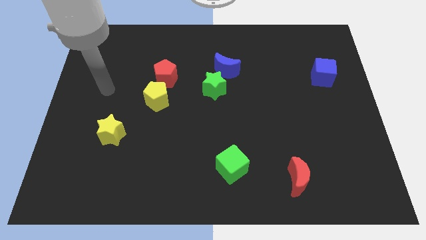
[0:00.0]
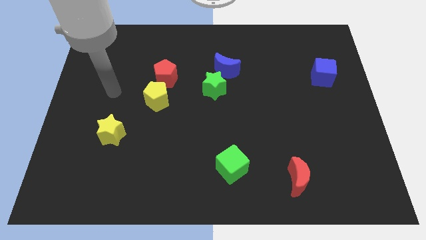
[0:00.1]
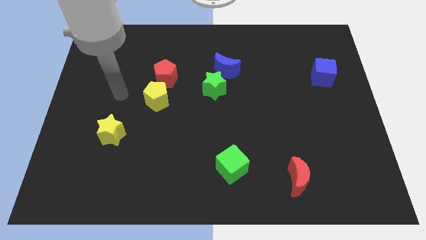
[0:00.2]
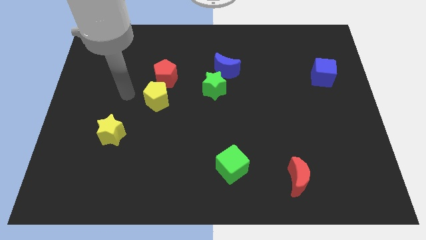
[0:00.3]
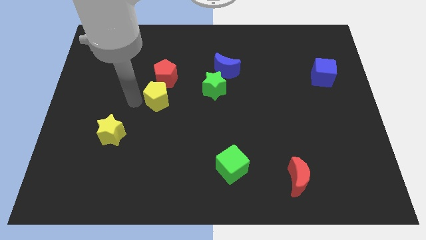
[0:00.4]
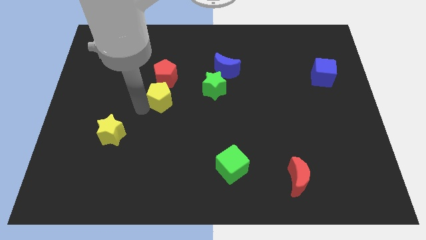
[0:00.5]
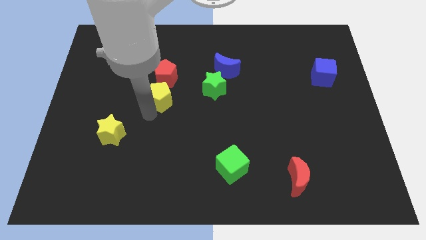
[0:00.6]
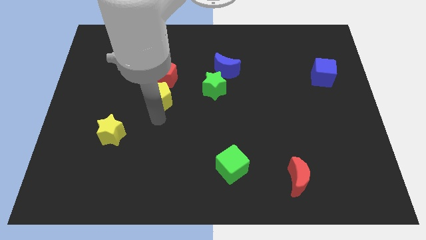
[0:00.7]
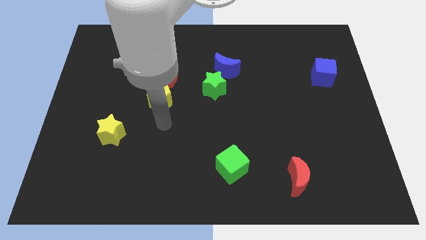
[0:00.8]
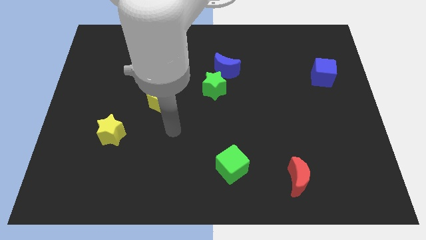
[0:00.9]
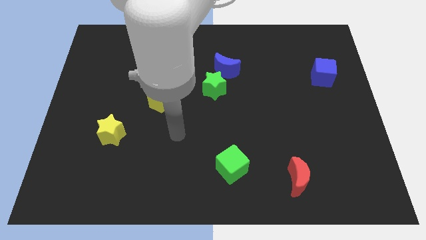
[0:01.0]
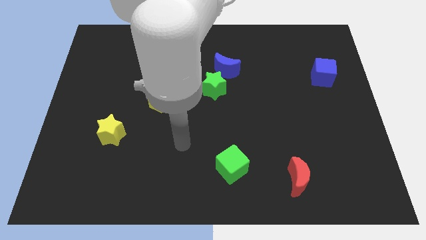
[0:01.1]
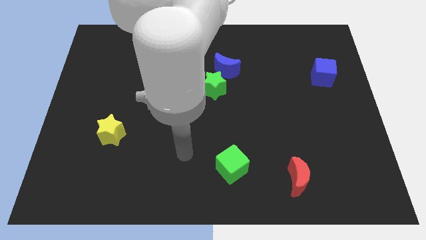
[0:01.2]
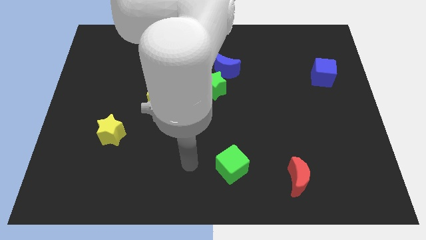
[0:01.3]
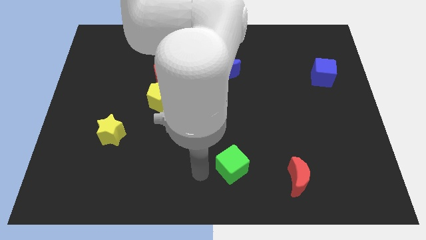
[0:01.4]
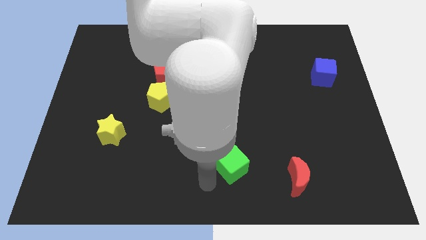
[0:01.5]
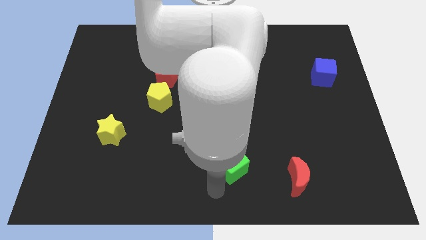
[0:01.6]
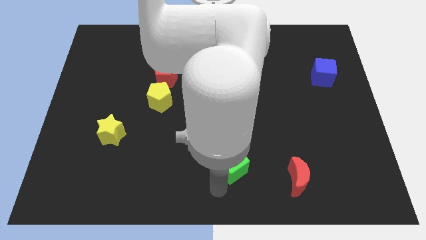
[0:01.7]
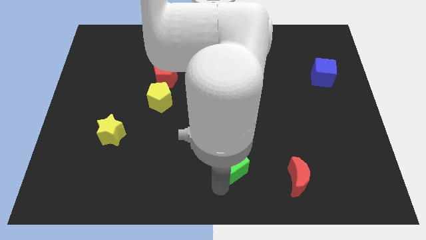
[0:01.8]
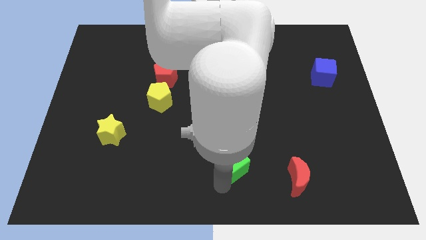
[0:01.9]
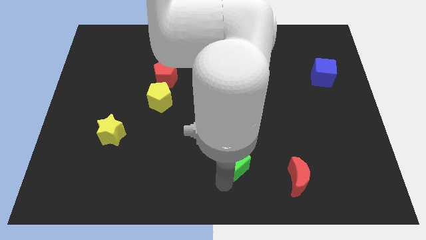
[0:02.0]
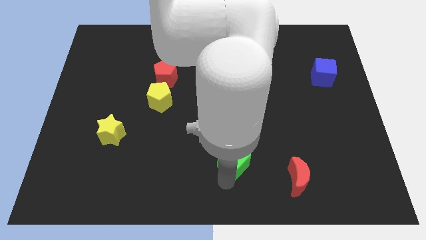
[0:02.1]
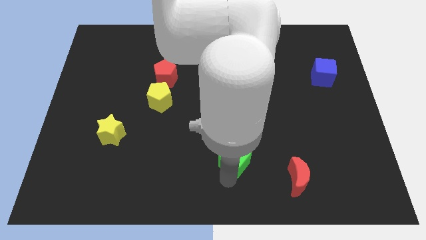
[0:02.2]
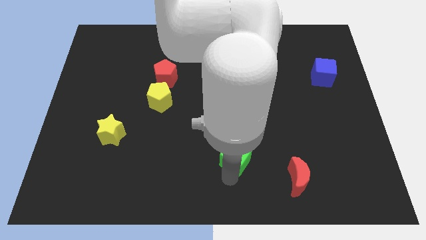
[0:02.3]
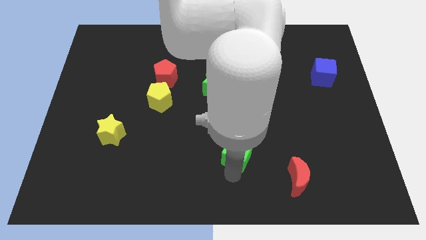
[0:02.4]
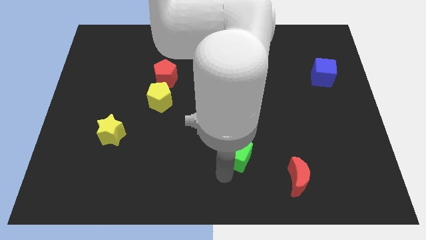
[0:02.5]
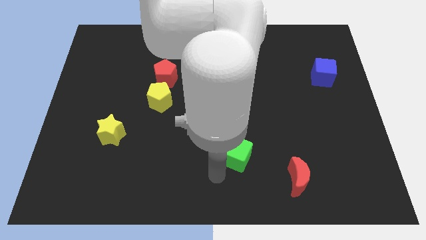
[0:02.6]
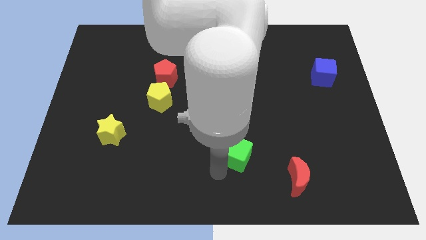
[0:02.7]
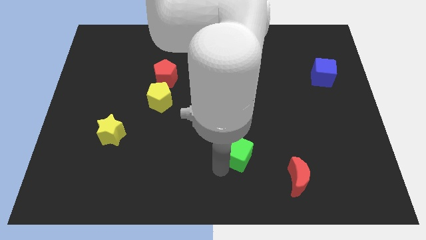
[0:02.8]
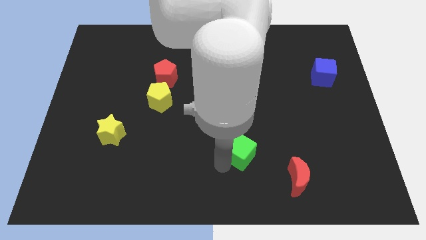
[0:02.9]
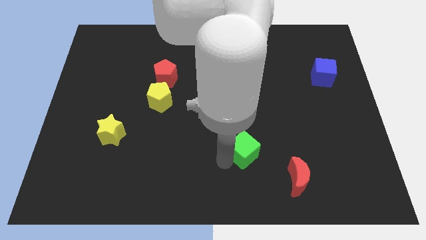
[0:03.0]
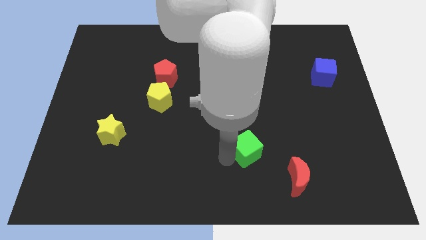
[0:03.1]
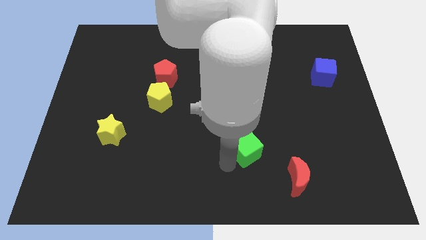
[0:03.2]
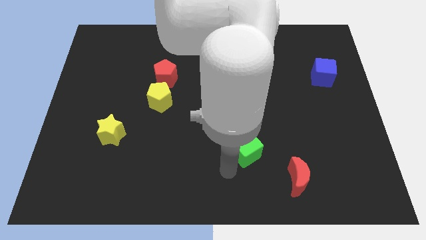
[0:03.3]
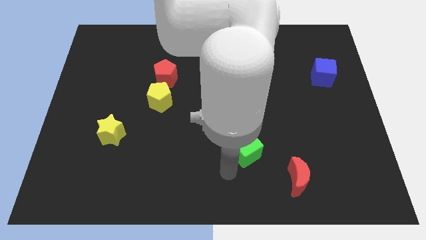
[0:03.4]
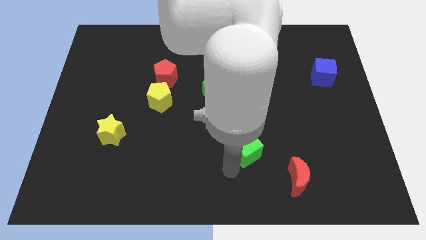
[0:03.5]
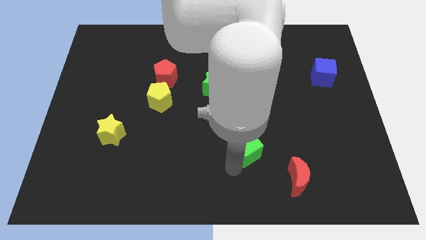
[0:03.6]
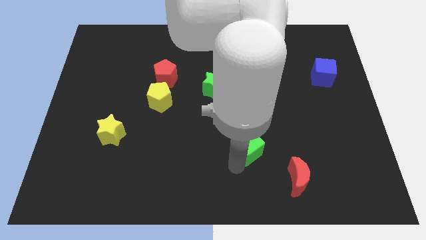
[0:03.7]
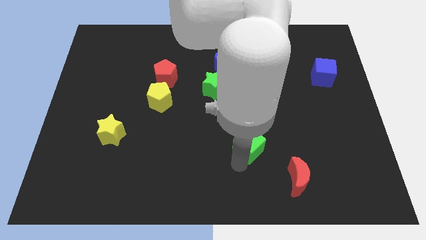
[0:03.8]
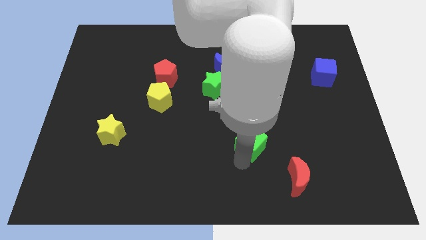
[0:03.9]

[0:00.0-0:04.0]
push the green cube a little bit up and then right

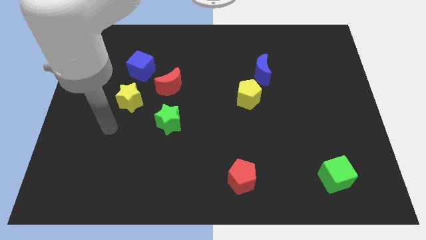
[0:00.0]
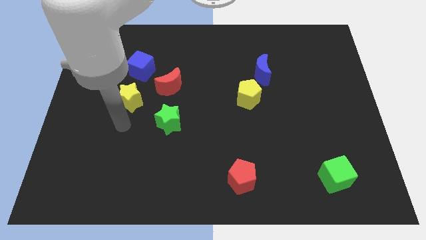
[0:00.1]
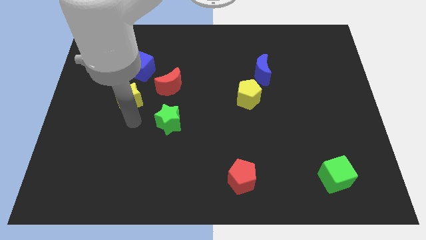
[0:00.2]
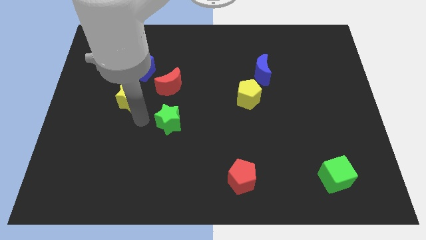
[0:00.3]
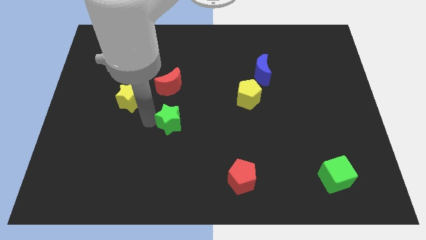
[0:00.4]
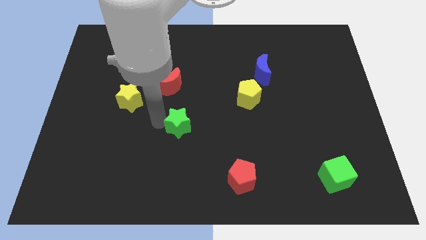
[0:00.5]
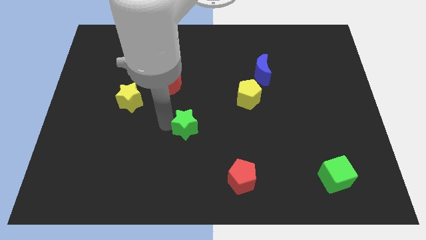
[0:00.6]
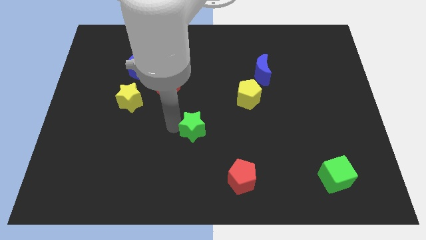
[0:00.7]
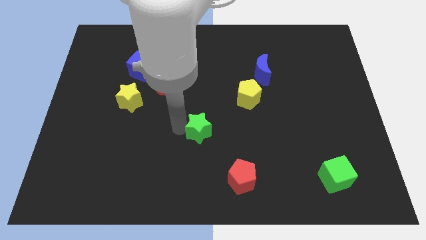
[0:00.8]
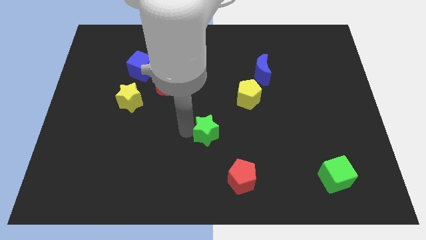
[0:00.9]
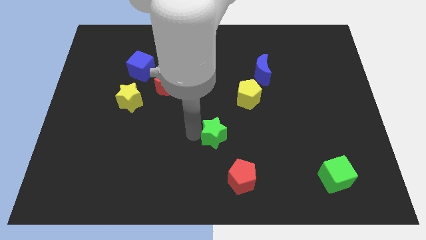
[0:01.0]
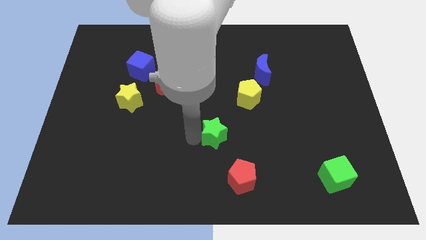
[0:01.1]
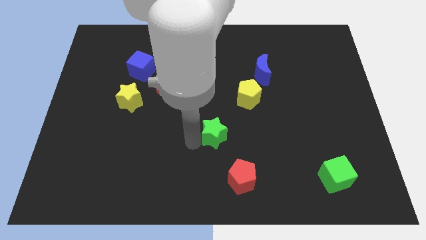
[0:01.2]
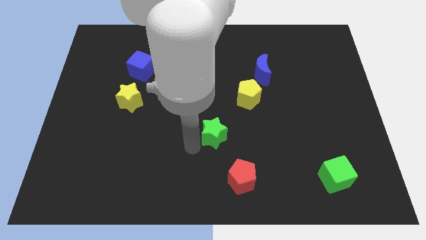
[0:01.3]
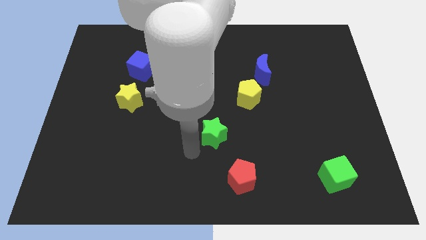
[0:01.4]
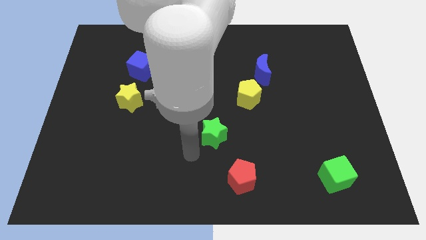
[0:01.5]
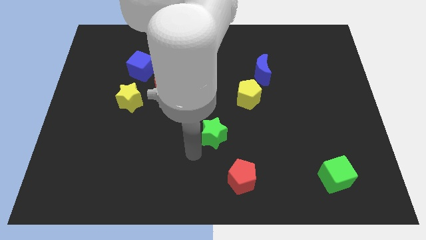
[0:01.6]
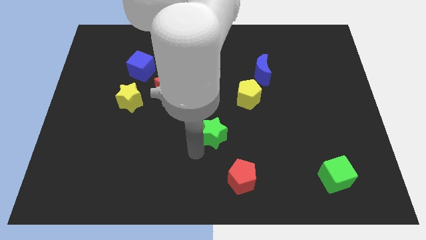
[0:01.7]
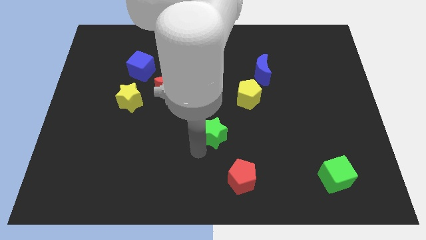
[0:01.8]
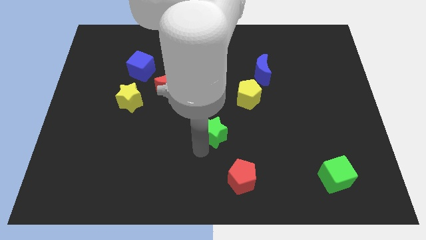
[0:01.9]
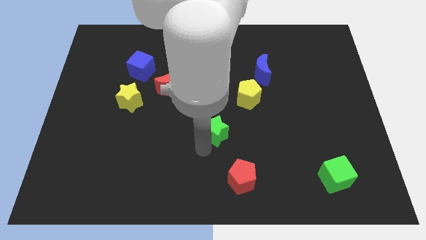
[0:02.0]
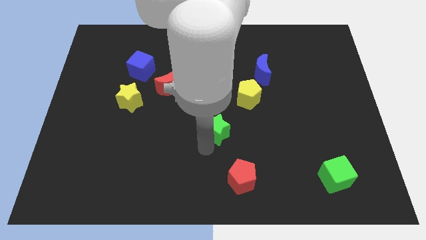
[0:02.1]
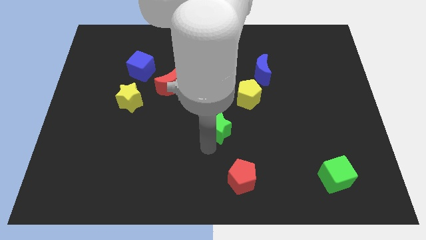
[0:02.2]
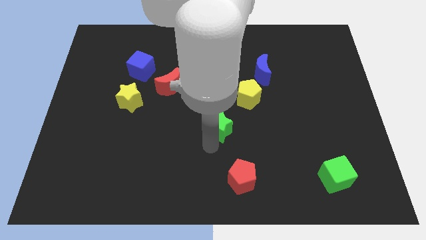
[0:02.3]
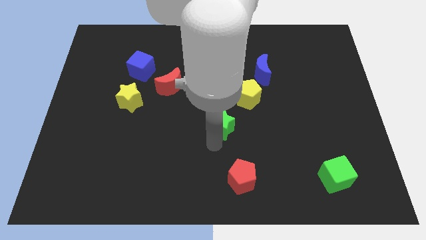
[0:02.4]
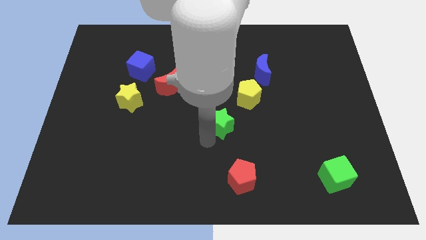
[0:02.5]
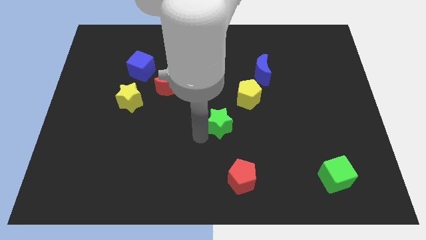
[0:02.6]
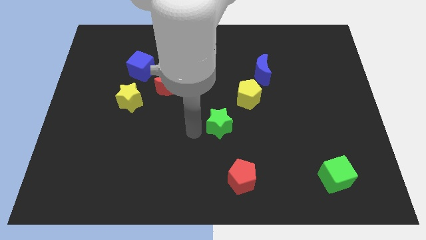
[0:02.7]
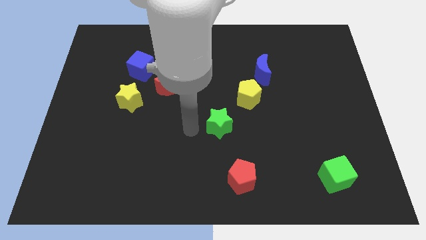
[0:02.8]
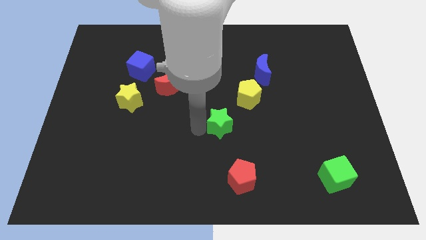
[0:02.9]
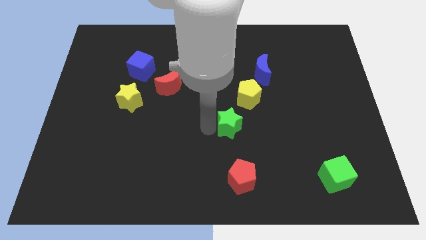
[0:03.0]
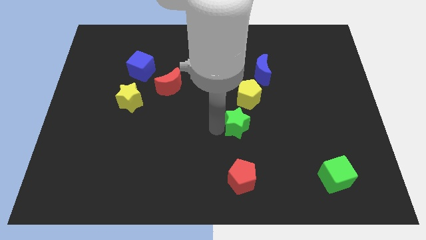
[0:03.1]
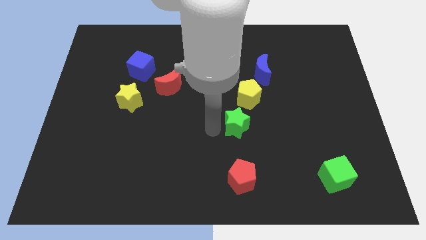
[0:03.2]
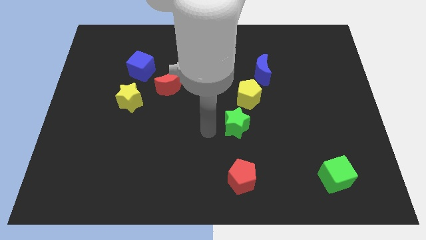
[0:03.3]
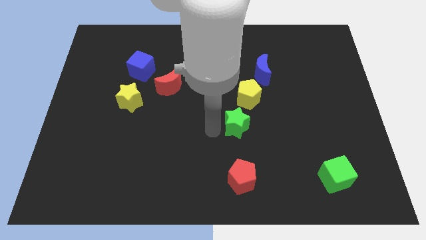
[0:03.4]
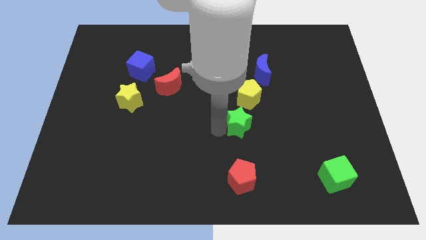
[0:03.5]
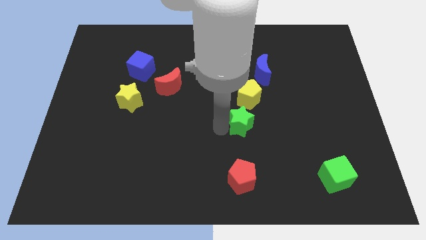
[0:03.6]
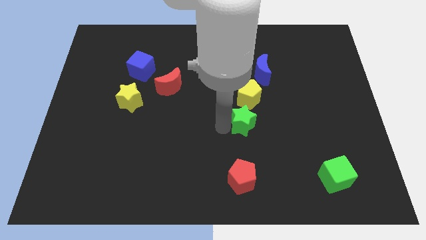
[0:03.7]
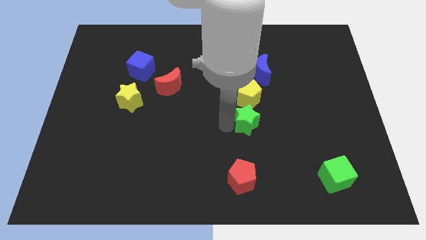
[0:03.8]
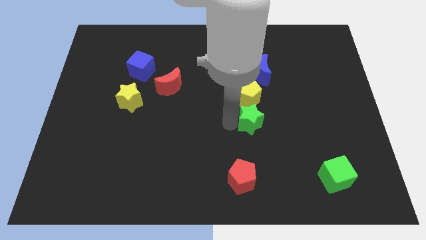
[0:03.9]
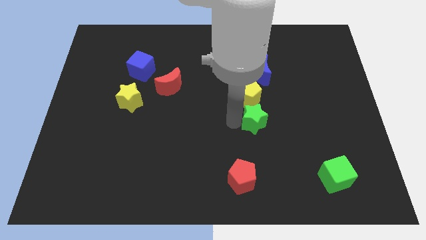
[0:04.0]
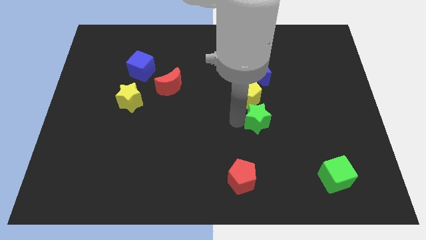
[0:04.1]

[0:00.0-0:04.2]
push the green star right
